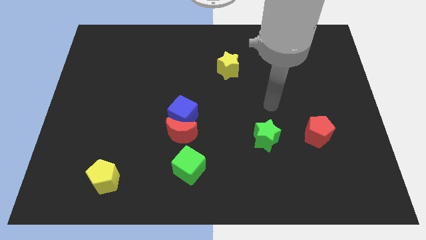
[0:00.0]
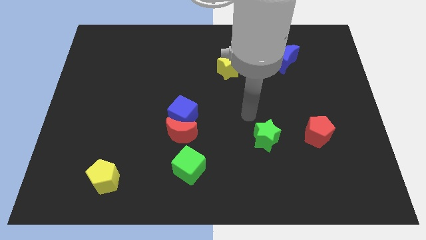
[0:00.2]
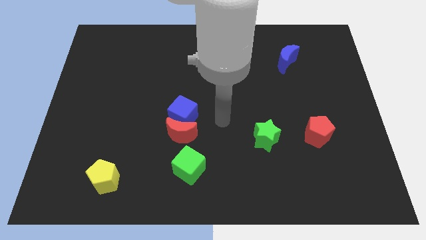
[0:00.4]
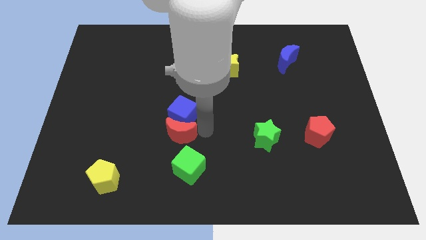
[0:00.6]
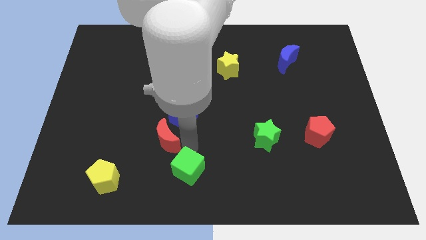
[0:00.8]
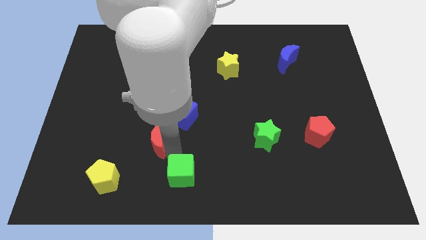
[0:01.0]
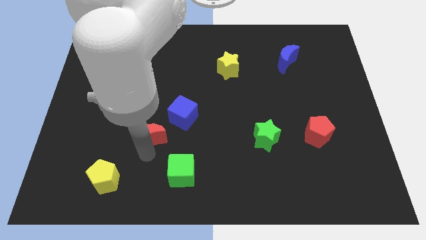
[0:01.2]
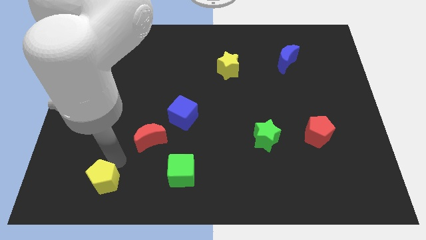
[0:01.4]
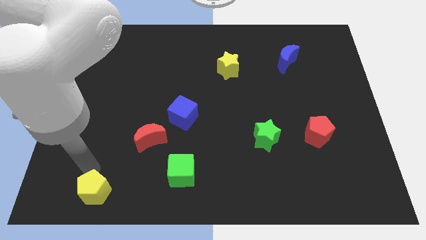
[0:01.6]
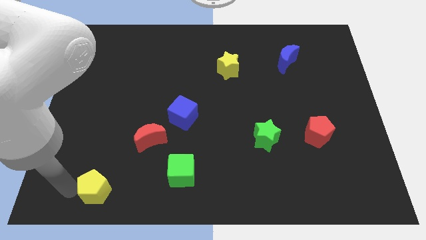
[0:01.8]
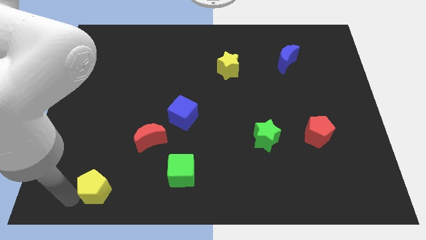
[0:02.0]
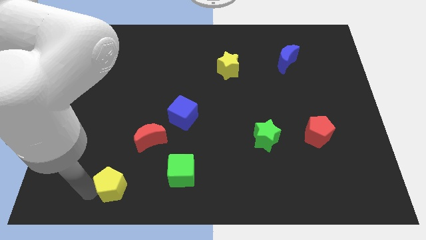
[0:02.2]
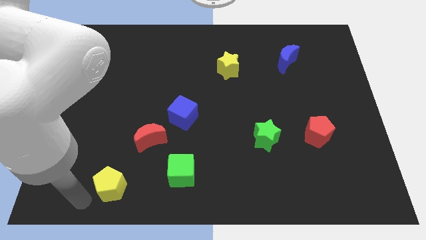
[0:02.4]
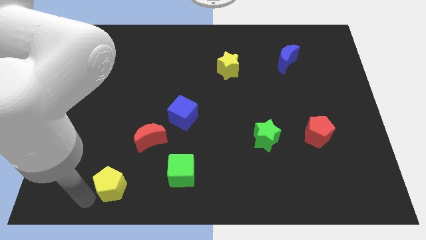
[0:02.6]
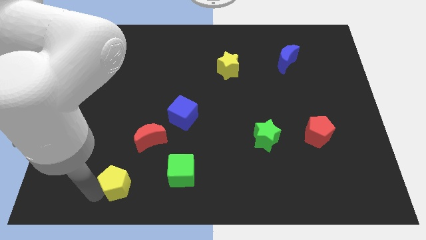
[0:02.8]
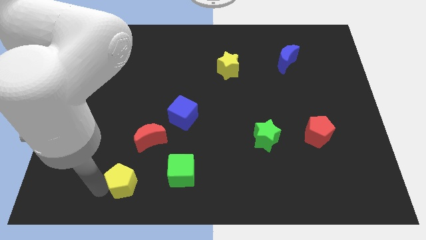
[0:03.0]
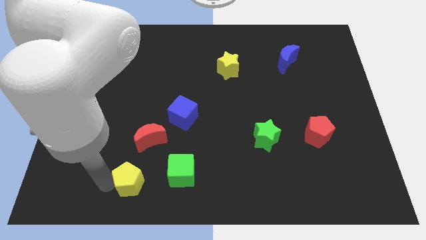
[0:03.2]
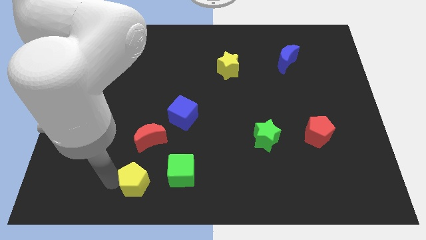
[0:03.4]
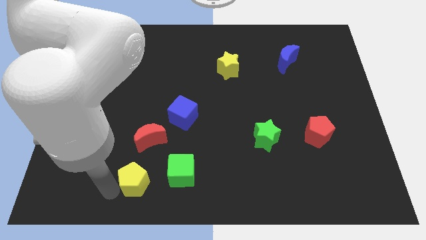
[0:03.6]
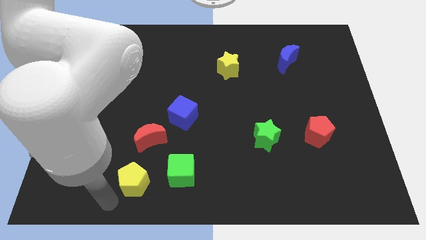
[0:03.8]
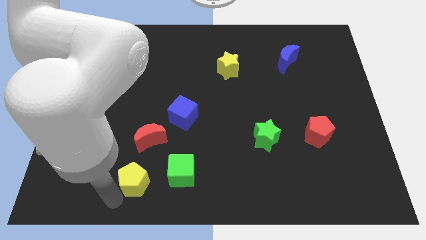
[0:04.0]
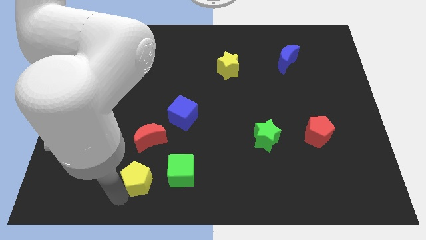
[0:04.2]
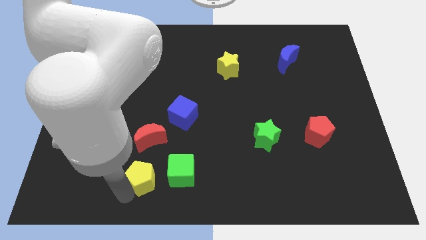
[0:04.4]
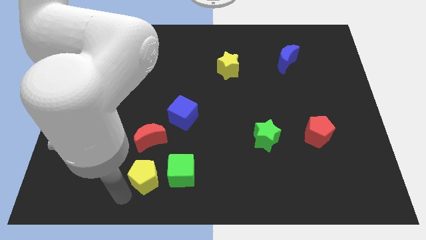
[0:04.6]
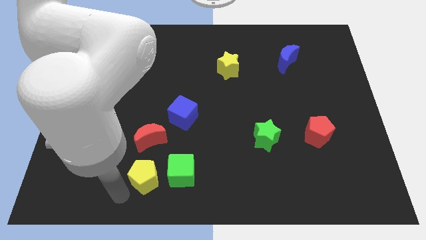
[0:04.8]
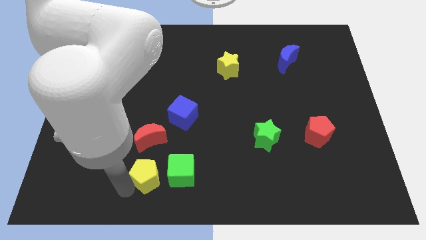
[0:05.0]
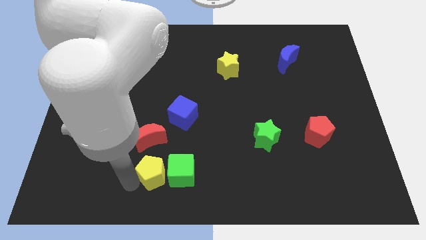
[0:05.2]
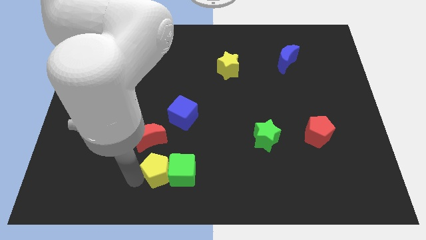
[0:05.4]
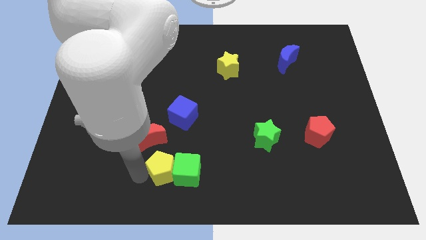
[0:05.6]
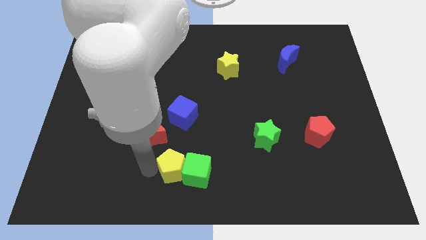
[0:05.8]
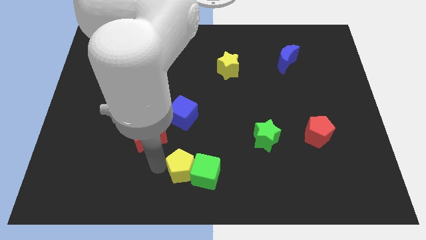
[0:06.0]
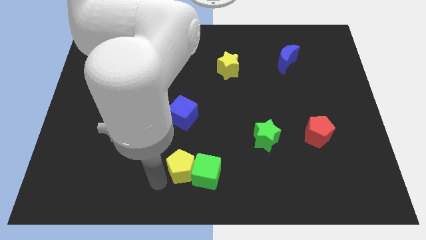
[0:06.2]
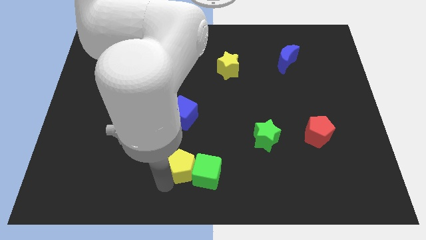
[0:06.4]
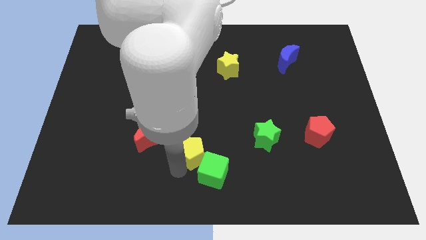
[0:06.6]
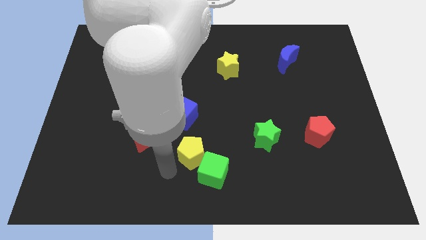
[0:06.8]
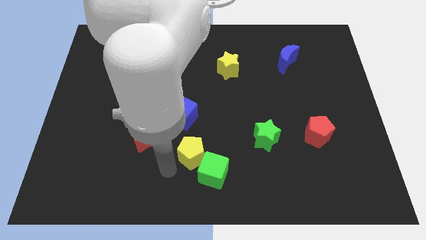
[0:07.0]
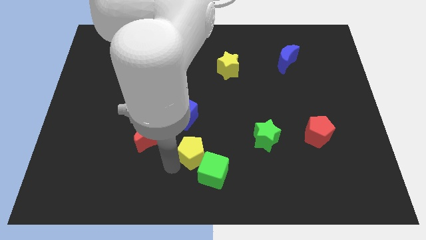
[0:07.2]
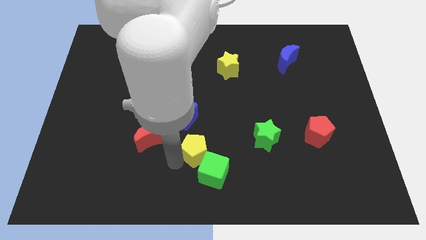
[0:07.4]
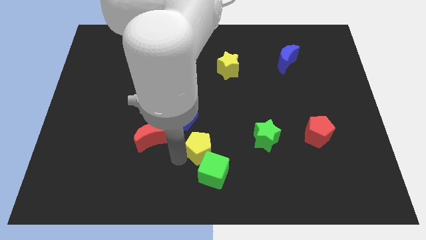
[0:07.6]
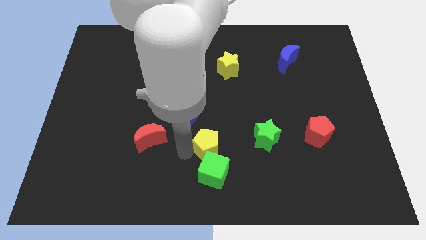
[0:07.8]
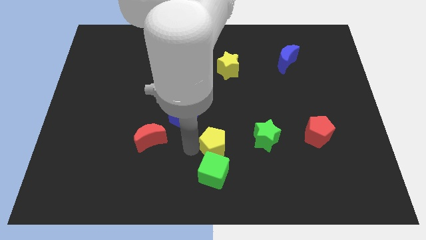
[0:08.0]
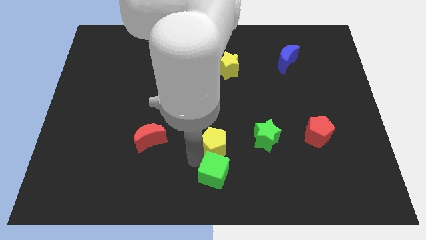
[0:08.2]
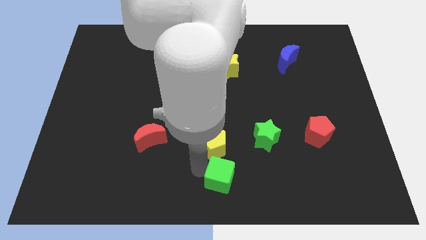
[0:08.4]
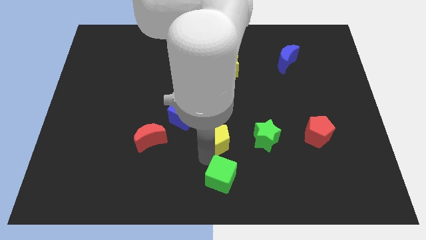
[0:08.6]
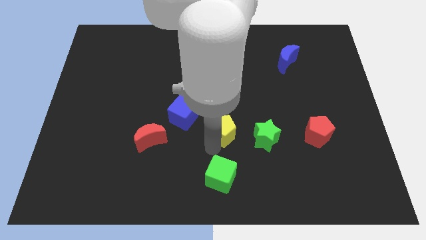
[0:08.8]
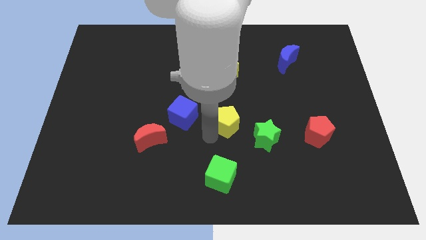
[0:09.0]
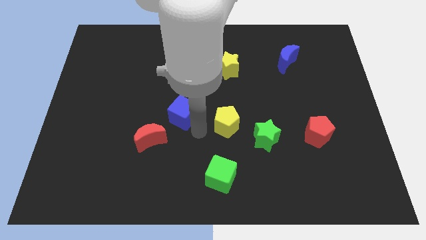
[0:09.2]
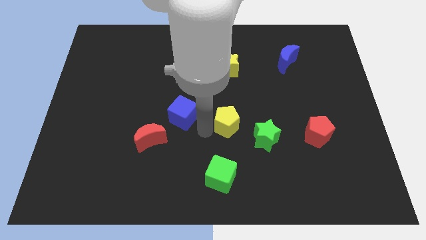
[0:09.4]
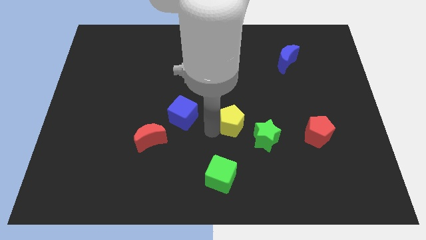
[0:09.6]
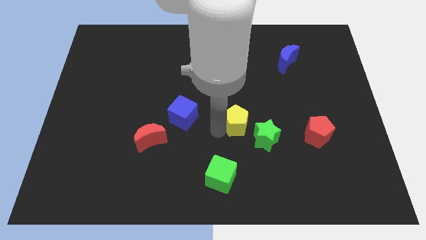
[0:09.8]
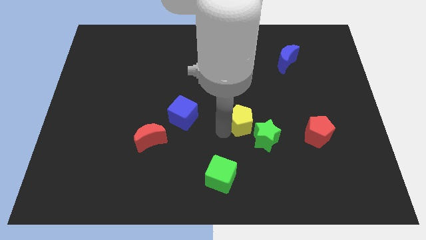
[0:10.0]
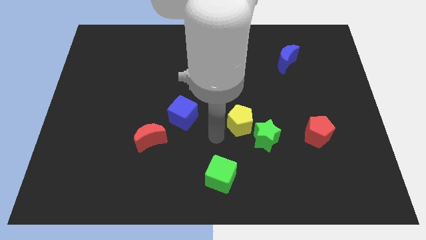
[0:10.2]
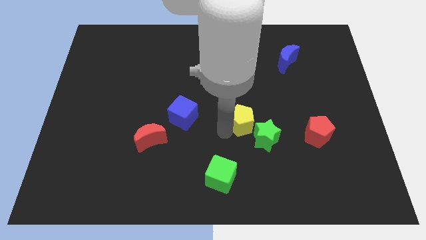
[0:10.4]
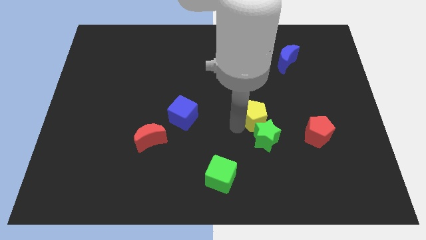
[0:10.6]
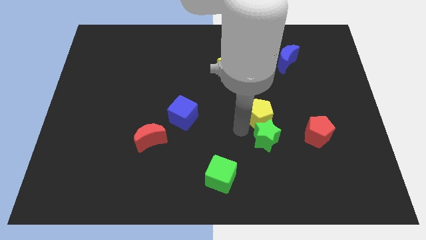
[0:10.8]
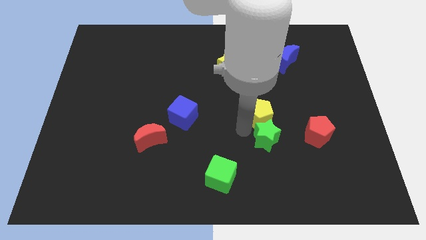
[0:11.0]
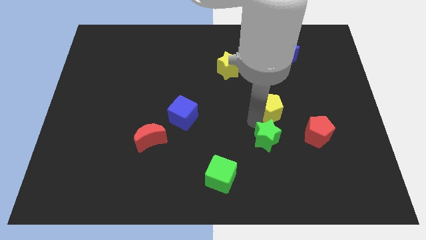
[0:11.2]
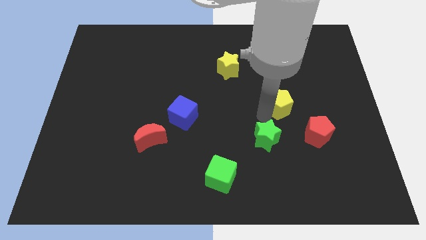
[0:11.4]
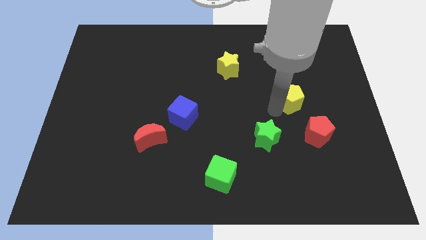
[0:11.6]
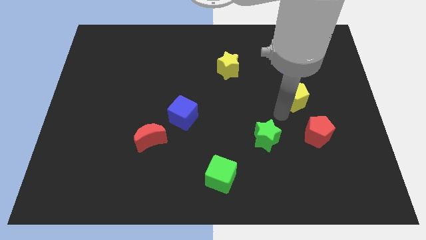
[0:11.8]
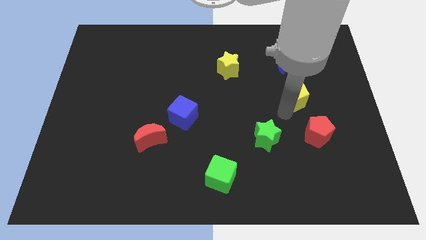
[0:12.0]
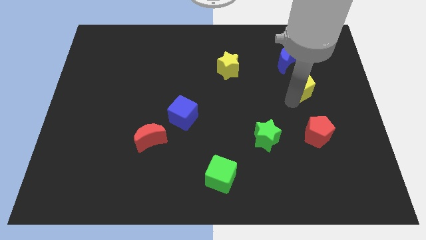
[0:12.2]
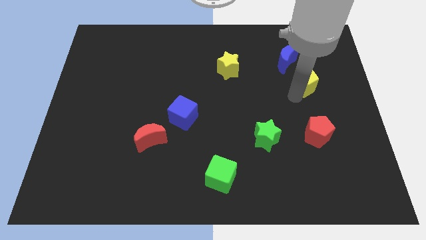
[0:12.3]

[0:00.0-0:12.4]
push the yellow pentagon to the bottom right of the blue moon

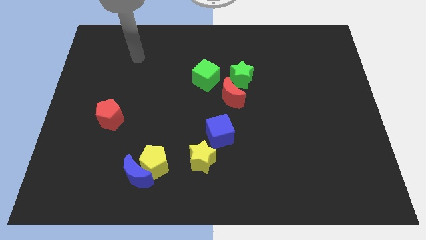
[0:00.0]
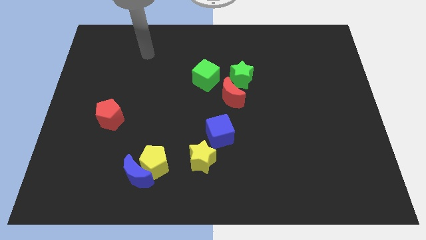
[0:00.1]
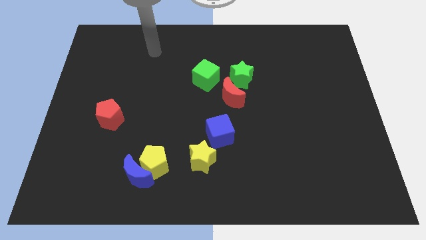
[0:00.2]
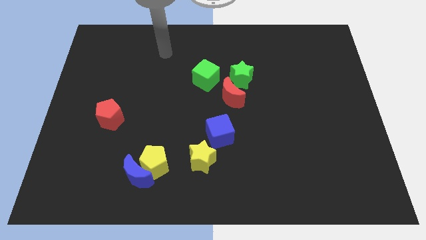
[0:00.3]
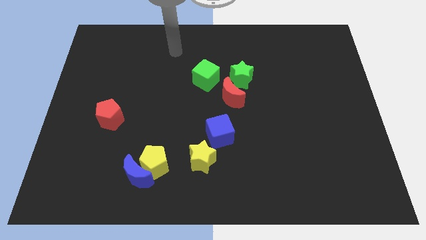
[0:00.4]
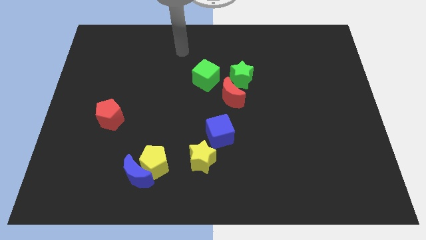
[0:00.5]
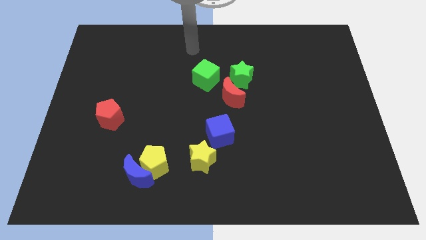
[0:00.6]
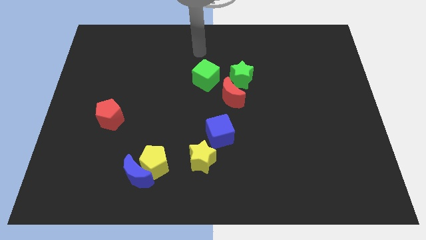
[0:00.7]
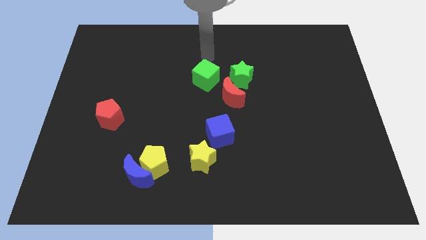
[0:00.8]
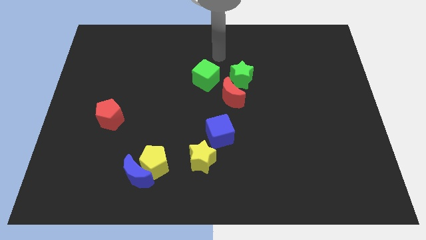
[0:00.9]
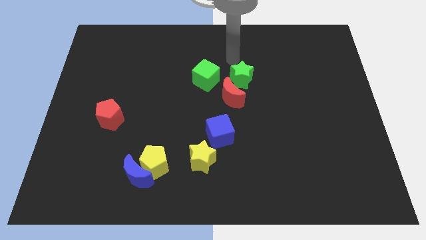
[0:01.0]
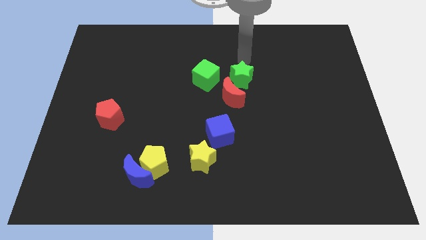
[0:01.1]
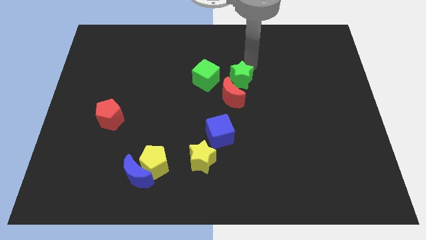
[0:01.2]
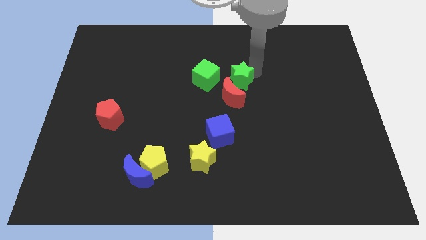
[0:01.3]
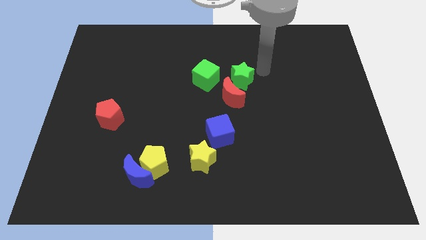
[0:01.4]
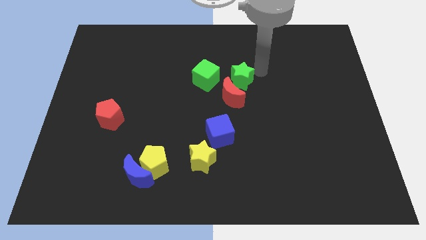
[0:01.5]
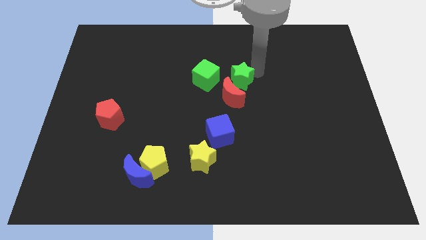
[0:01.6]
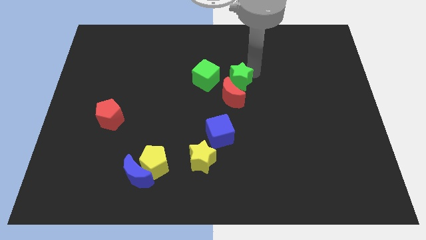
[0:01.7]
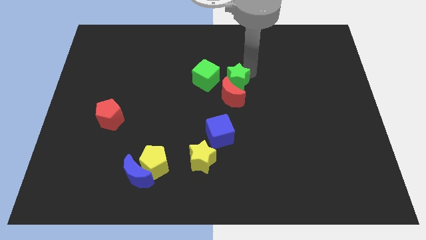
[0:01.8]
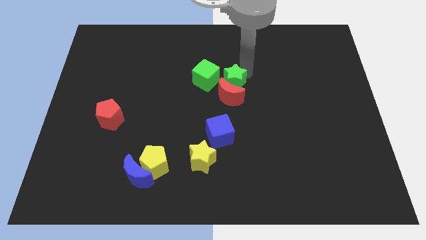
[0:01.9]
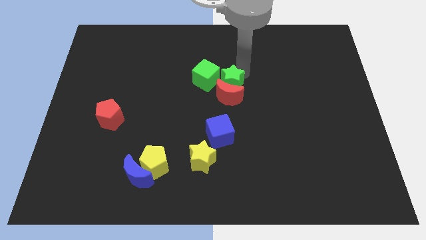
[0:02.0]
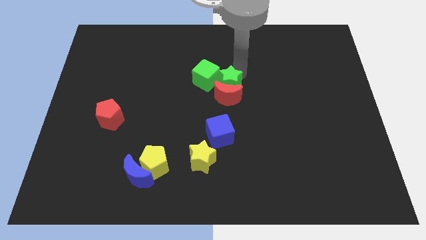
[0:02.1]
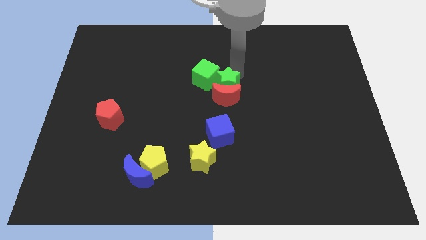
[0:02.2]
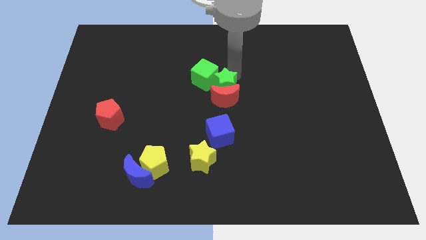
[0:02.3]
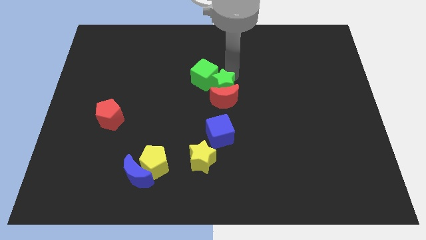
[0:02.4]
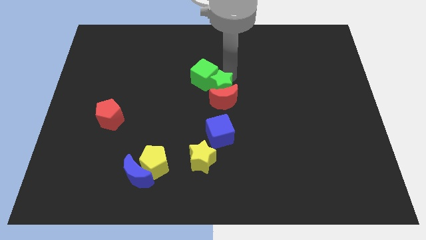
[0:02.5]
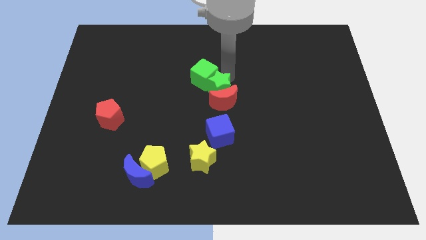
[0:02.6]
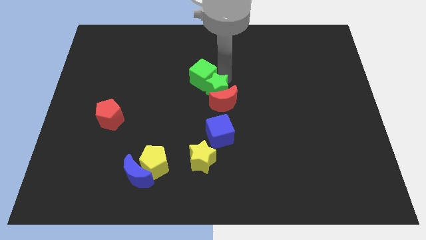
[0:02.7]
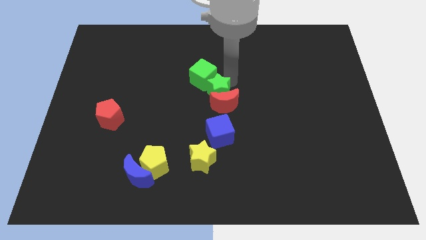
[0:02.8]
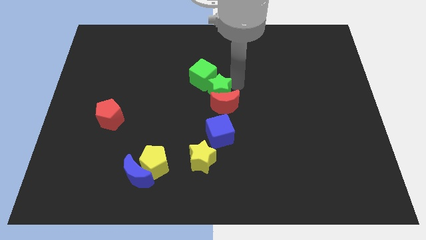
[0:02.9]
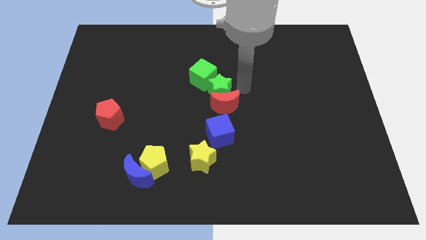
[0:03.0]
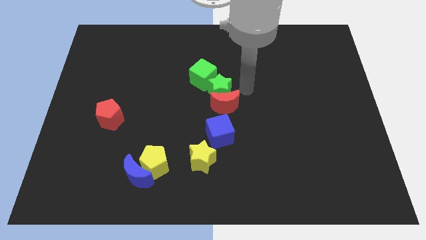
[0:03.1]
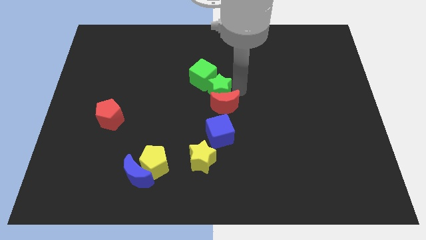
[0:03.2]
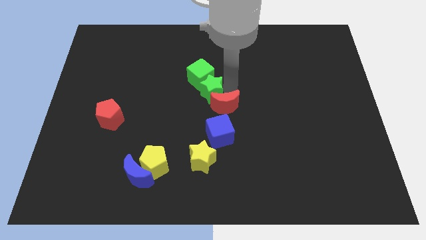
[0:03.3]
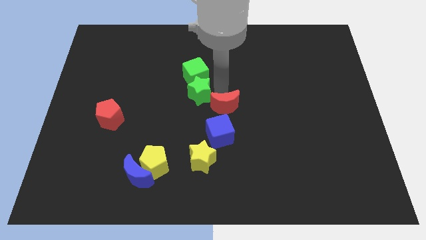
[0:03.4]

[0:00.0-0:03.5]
put the green star to the bottom left of the green cube
